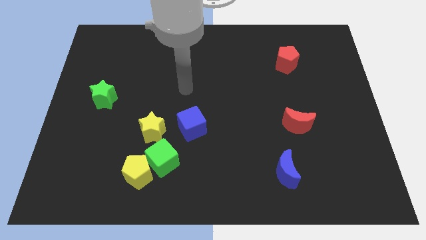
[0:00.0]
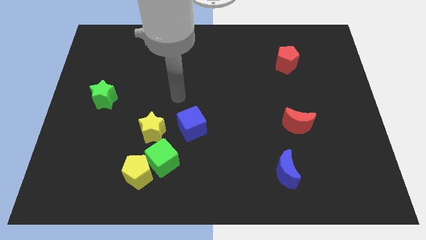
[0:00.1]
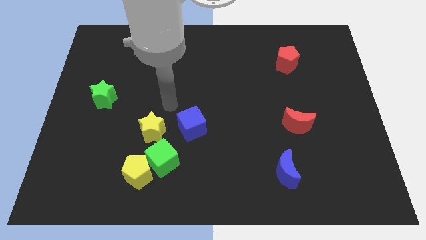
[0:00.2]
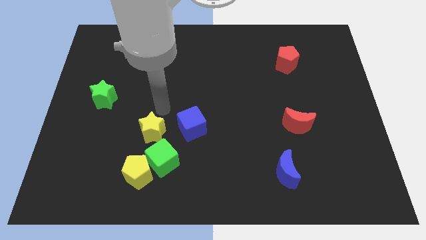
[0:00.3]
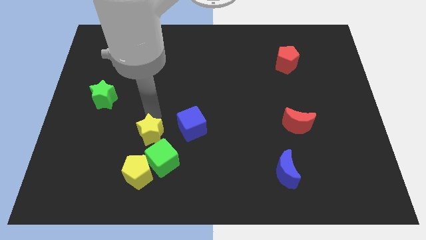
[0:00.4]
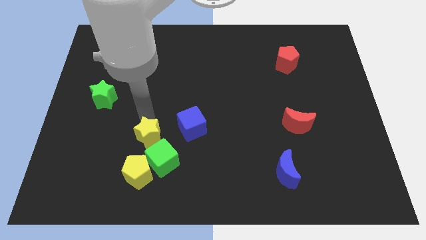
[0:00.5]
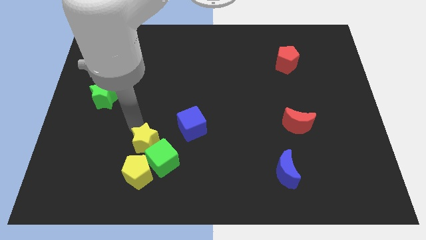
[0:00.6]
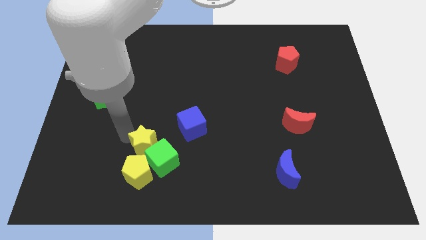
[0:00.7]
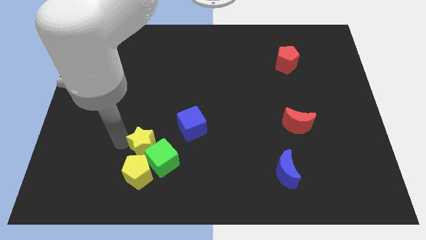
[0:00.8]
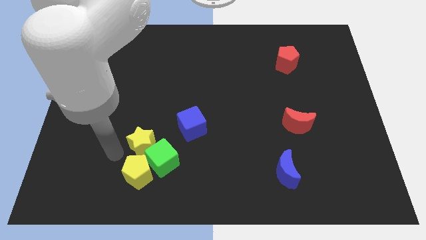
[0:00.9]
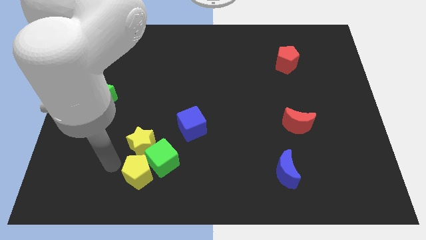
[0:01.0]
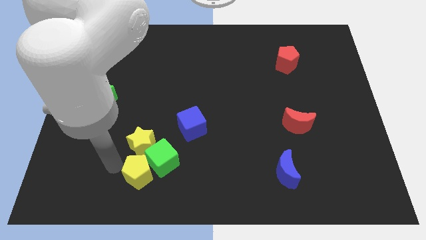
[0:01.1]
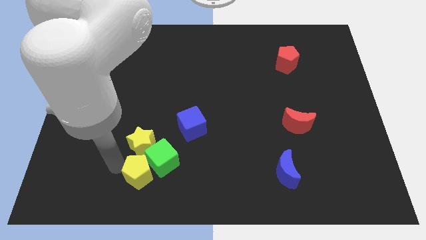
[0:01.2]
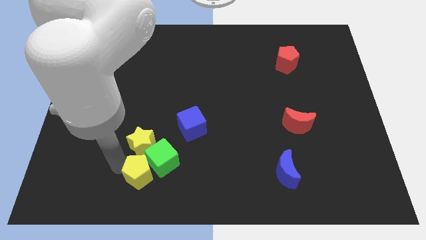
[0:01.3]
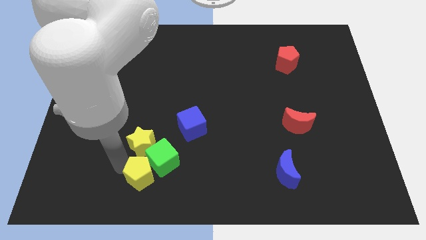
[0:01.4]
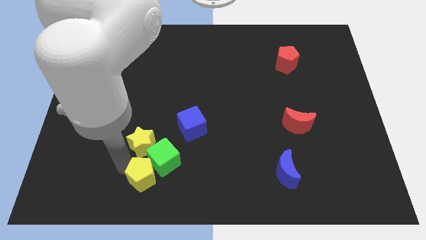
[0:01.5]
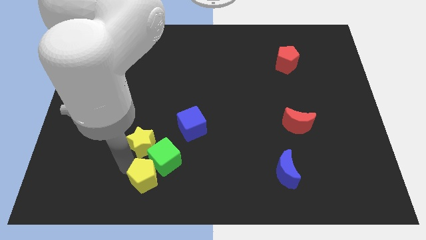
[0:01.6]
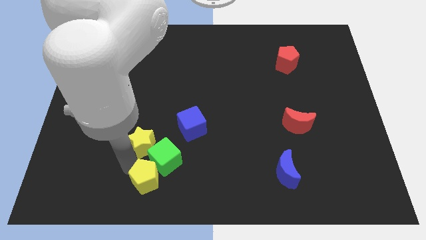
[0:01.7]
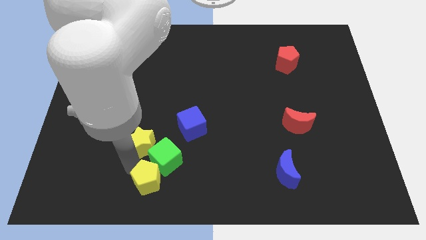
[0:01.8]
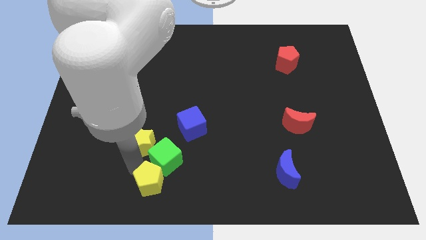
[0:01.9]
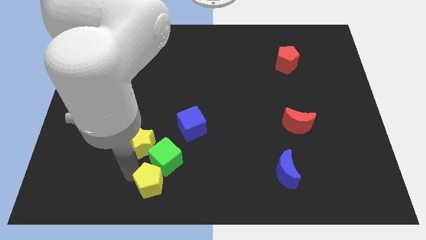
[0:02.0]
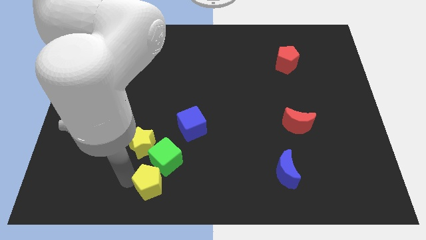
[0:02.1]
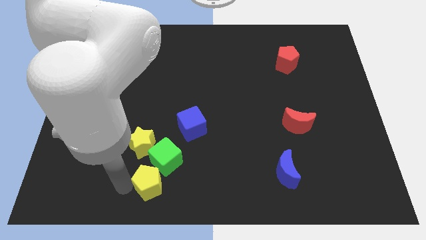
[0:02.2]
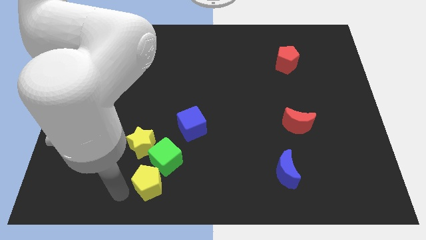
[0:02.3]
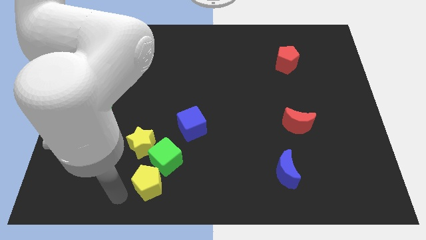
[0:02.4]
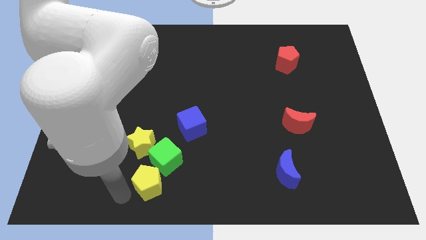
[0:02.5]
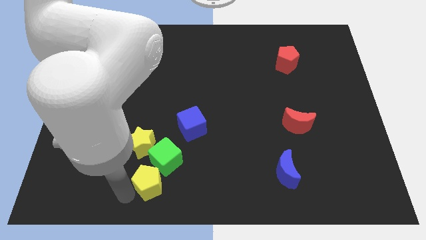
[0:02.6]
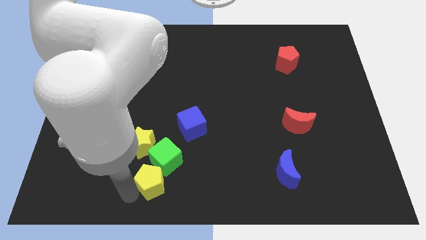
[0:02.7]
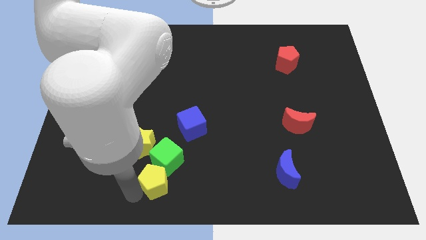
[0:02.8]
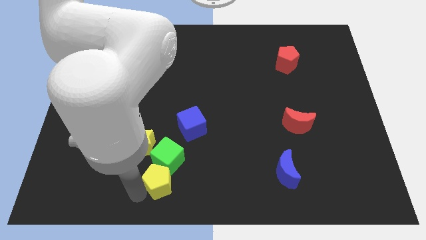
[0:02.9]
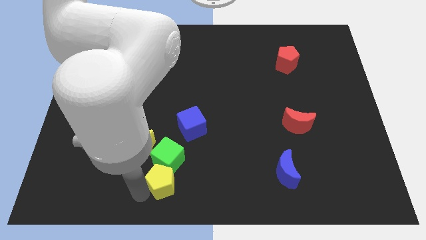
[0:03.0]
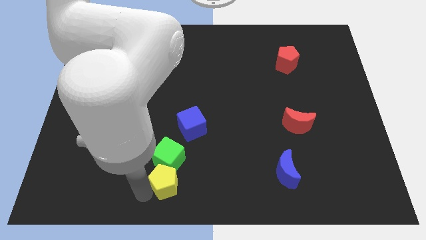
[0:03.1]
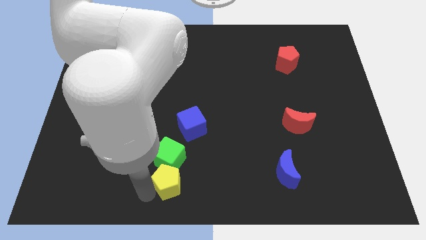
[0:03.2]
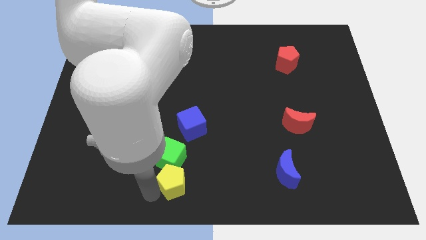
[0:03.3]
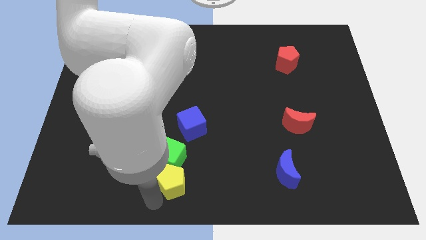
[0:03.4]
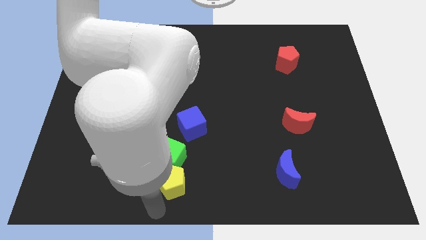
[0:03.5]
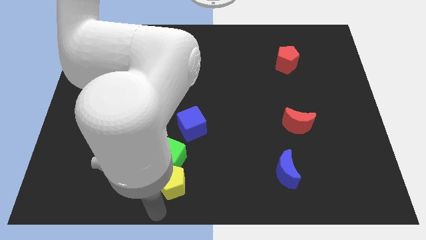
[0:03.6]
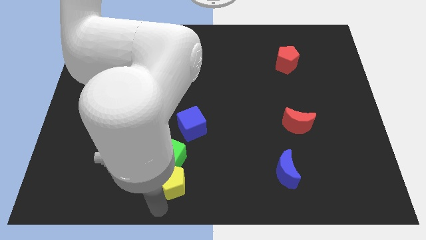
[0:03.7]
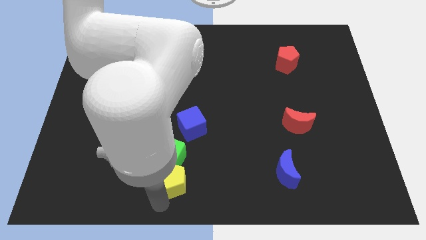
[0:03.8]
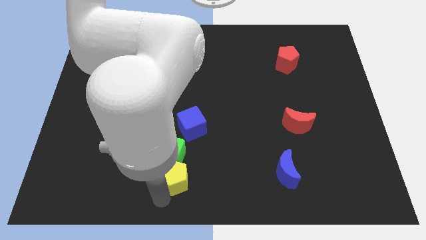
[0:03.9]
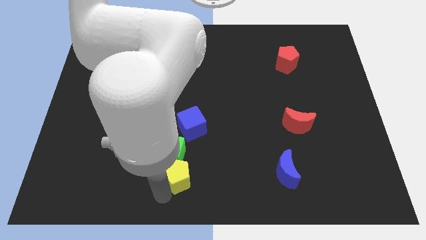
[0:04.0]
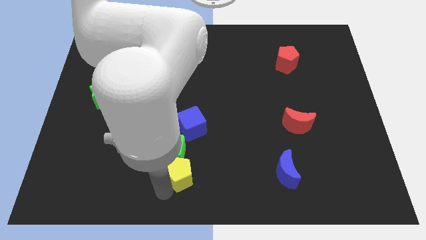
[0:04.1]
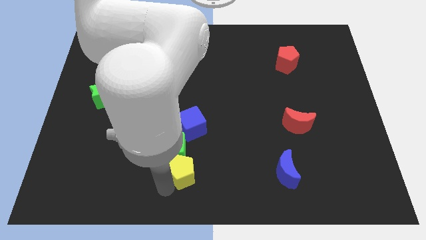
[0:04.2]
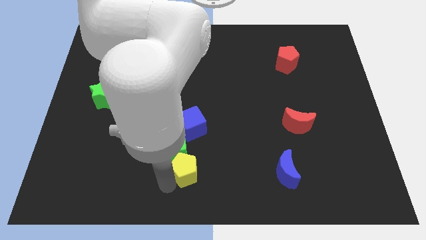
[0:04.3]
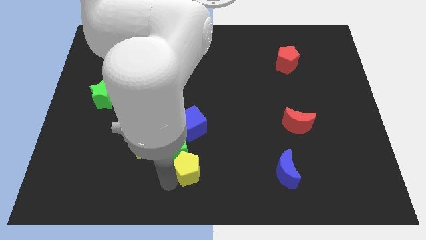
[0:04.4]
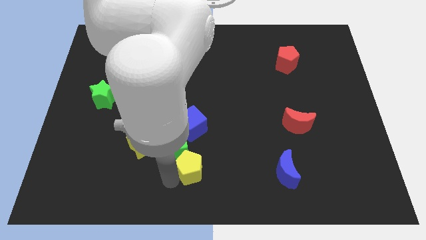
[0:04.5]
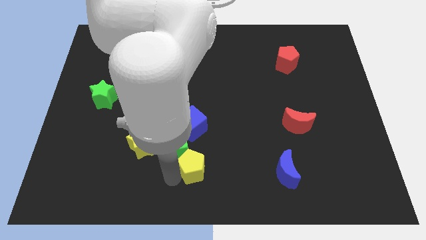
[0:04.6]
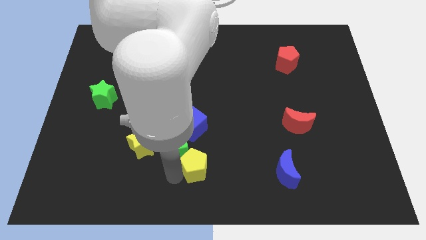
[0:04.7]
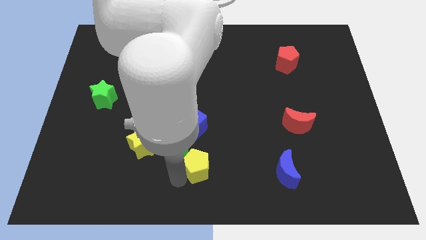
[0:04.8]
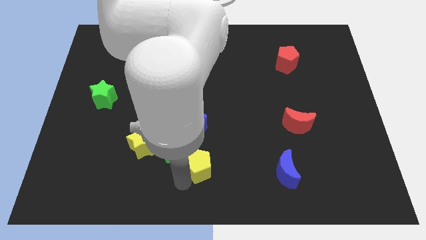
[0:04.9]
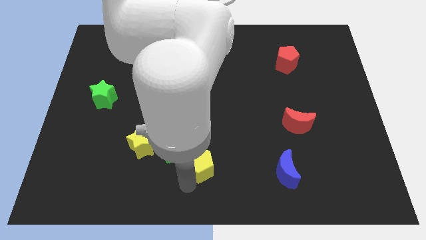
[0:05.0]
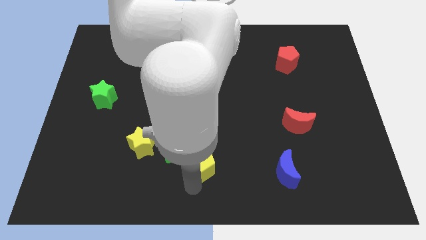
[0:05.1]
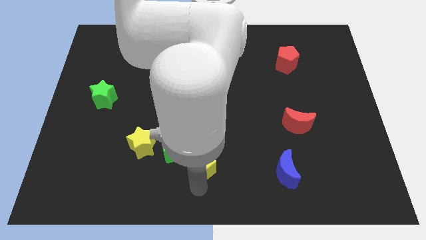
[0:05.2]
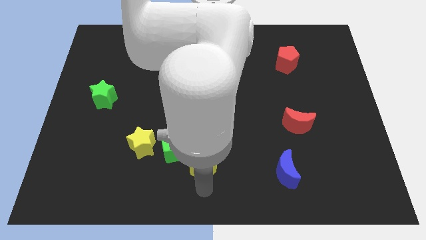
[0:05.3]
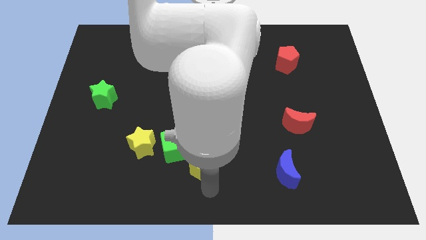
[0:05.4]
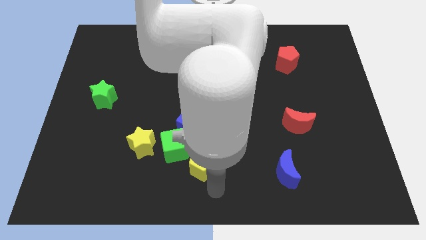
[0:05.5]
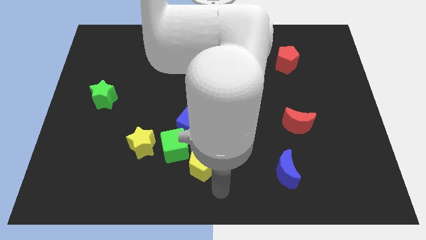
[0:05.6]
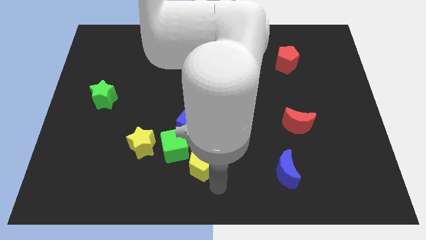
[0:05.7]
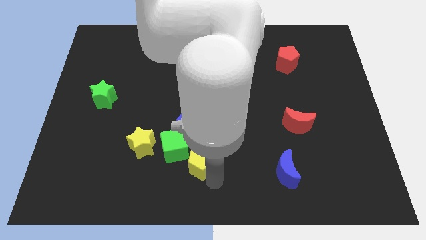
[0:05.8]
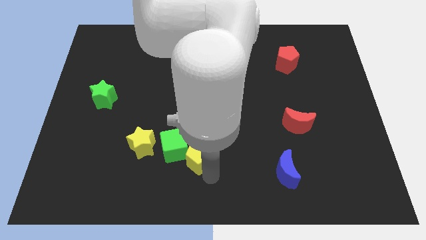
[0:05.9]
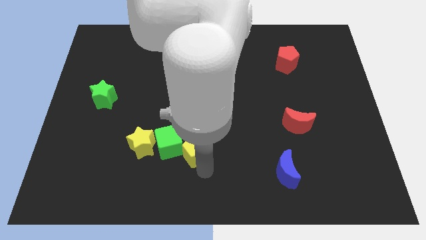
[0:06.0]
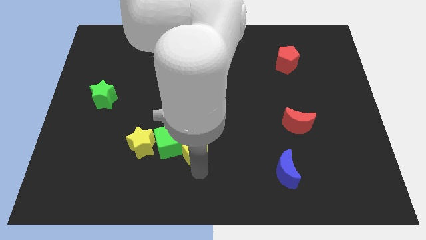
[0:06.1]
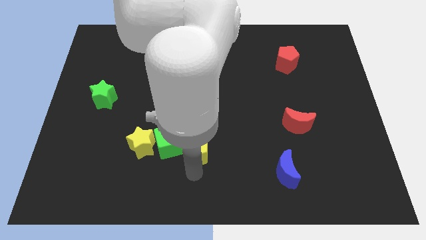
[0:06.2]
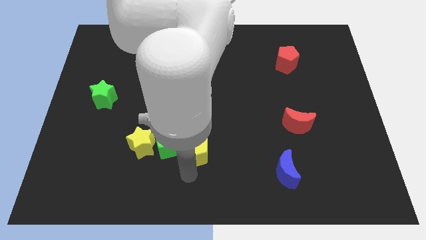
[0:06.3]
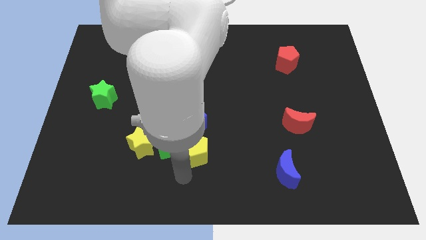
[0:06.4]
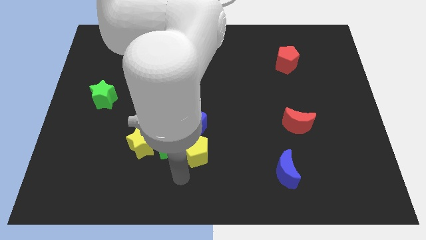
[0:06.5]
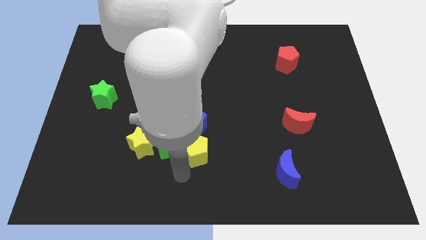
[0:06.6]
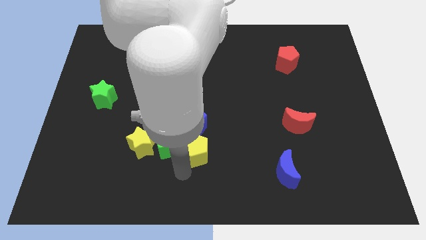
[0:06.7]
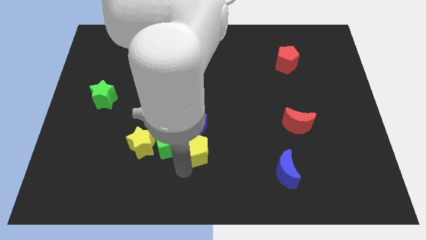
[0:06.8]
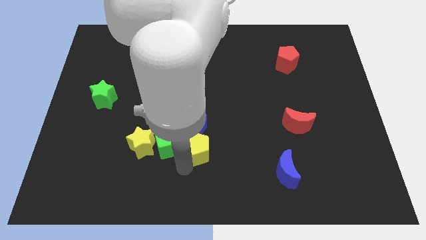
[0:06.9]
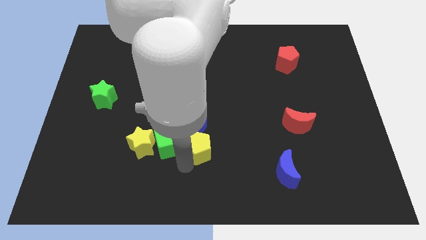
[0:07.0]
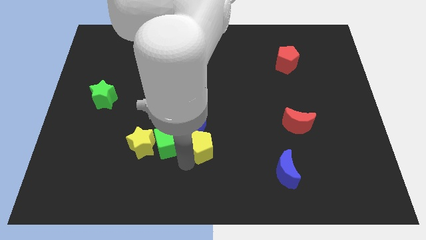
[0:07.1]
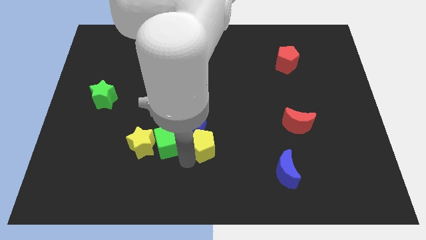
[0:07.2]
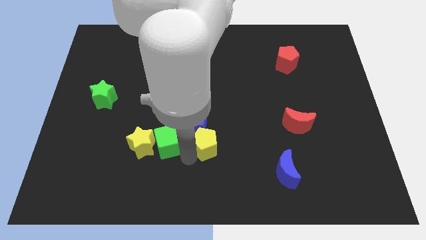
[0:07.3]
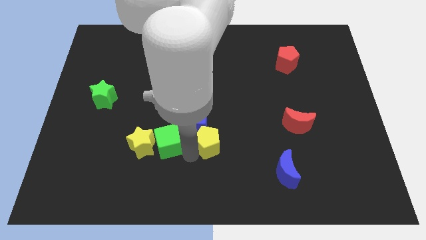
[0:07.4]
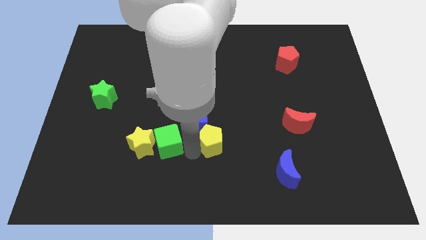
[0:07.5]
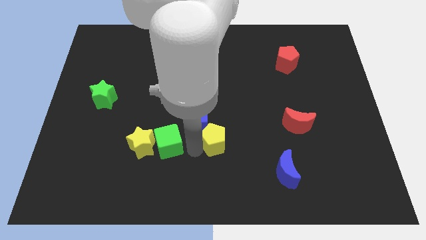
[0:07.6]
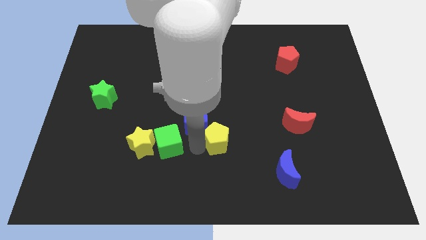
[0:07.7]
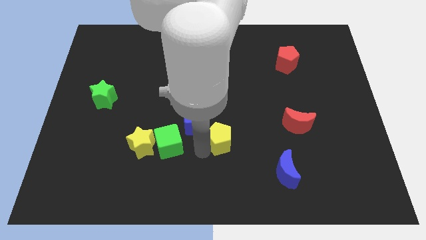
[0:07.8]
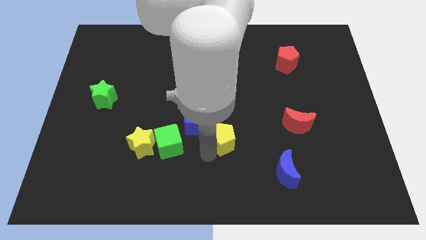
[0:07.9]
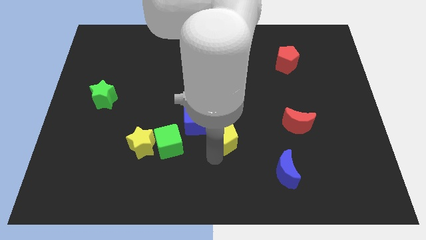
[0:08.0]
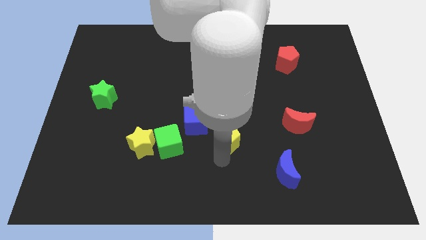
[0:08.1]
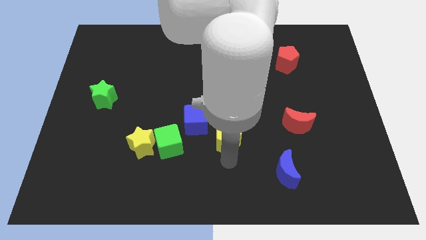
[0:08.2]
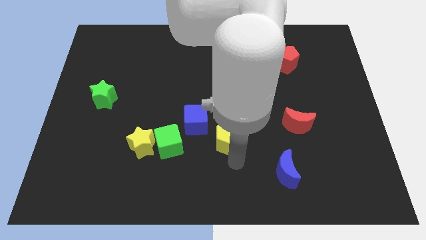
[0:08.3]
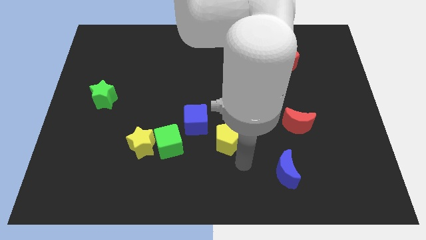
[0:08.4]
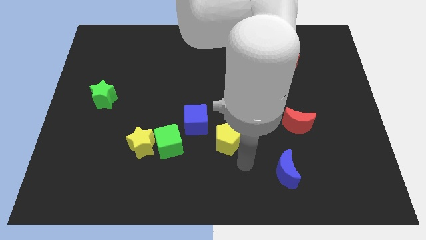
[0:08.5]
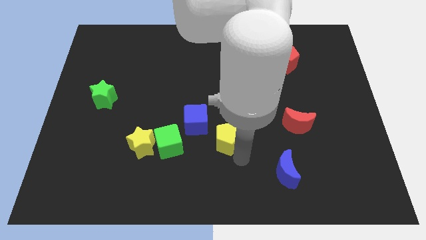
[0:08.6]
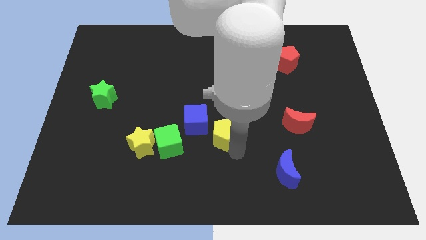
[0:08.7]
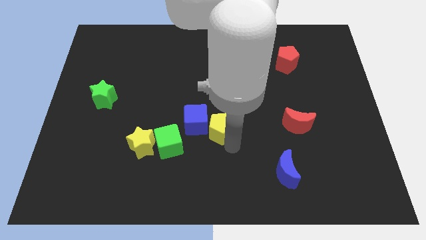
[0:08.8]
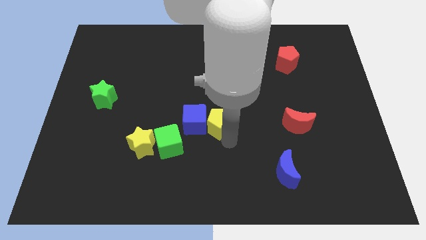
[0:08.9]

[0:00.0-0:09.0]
slide the yellow pentagon to the top right side of the blue cube
